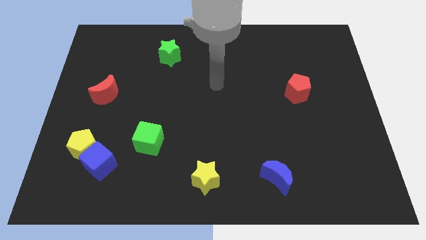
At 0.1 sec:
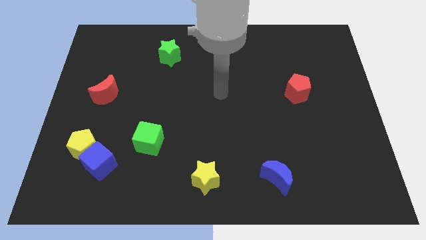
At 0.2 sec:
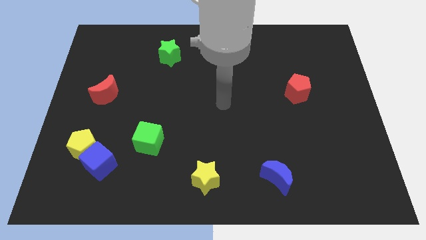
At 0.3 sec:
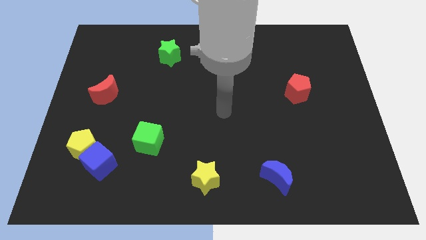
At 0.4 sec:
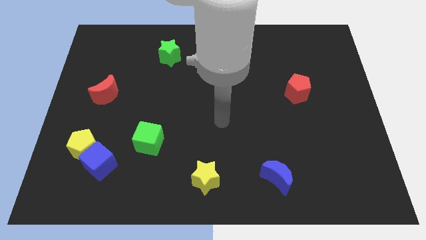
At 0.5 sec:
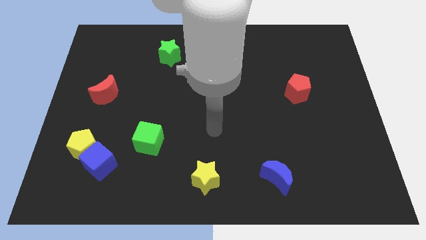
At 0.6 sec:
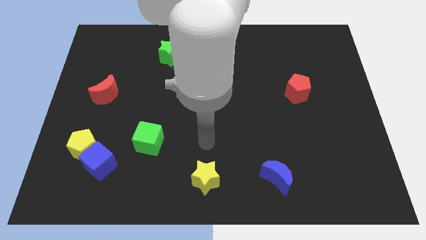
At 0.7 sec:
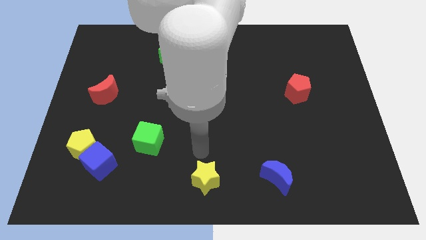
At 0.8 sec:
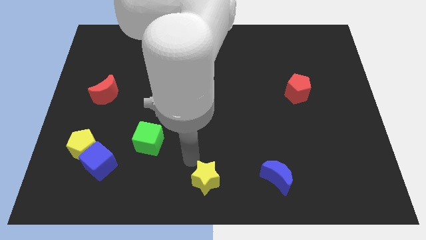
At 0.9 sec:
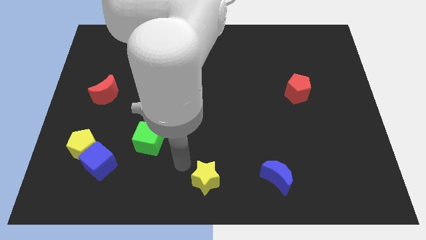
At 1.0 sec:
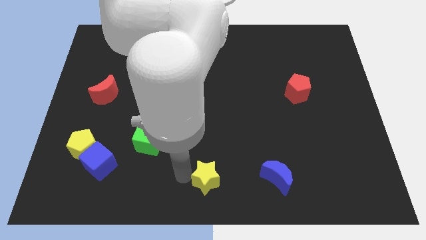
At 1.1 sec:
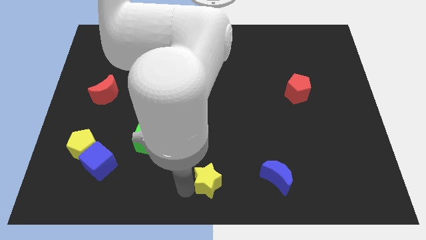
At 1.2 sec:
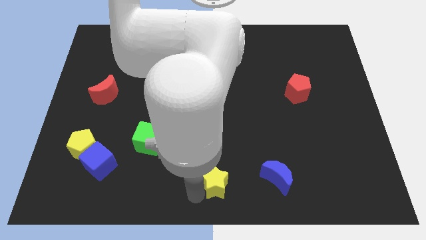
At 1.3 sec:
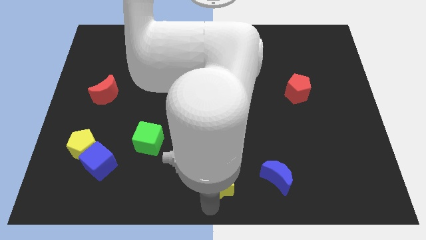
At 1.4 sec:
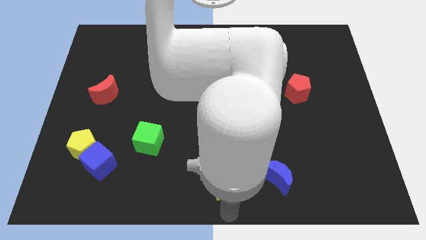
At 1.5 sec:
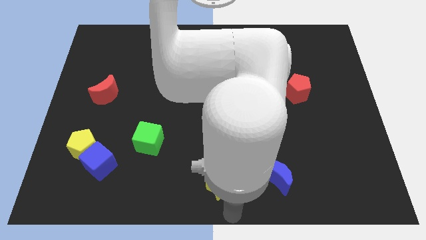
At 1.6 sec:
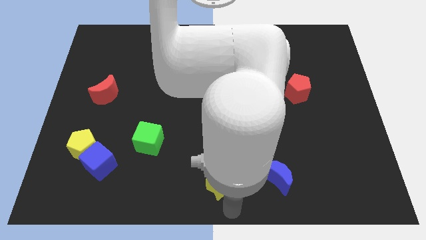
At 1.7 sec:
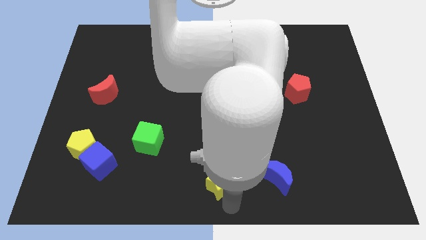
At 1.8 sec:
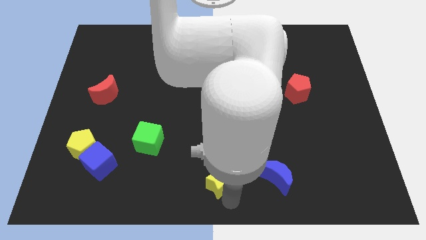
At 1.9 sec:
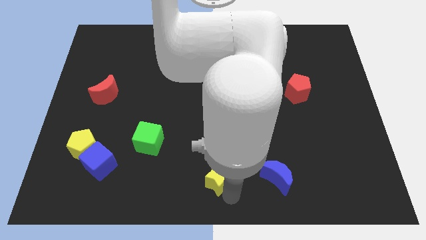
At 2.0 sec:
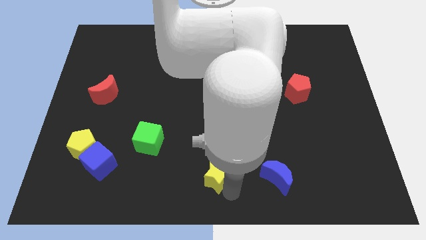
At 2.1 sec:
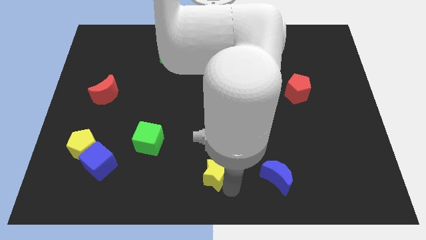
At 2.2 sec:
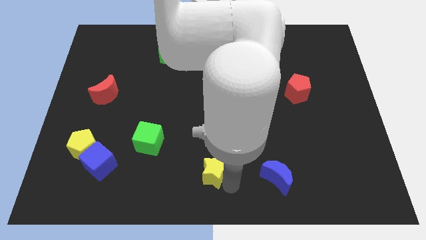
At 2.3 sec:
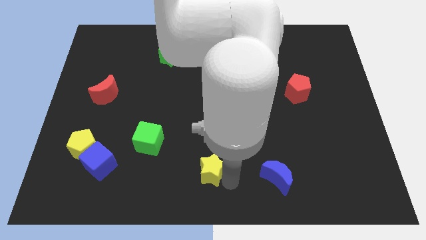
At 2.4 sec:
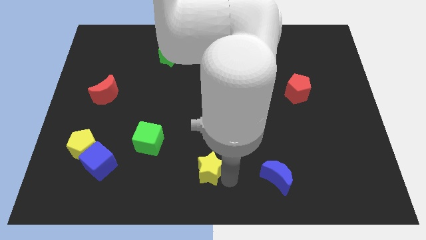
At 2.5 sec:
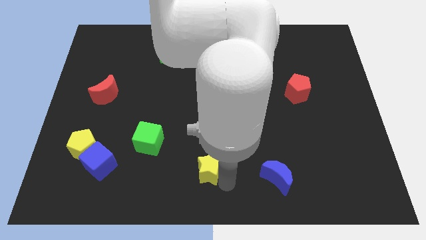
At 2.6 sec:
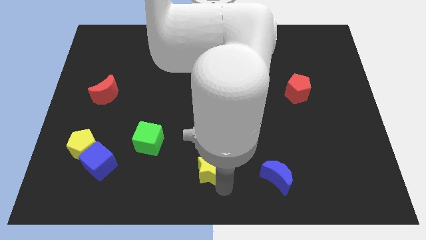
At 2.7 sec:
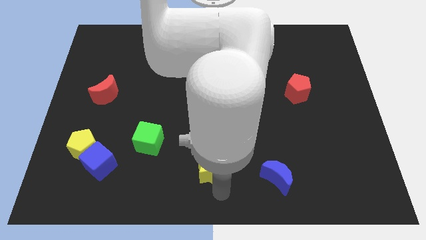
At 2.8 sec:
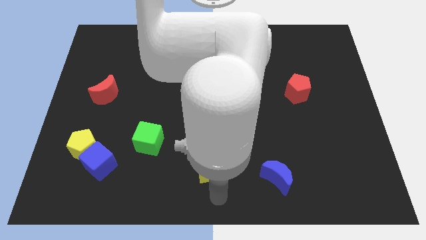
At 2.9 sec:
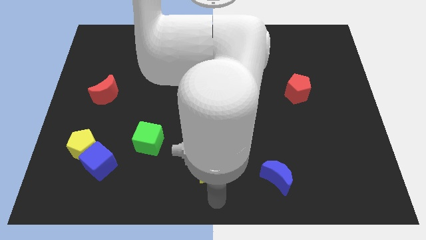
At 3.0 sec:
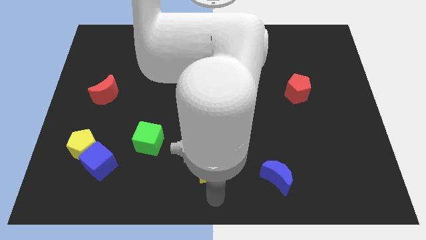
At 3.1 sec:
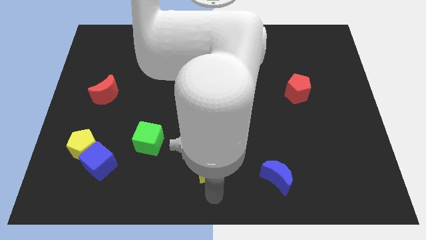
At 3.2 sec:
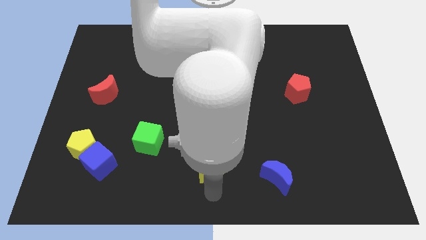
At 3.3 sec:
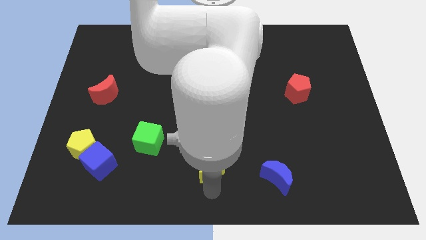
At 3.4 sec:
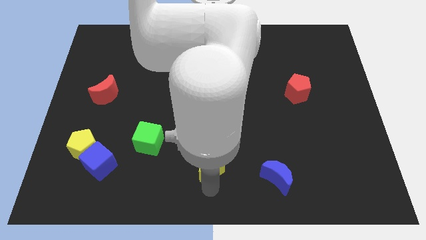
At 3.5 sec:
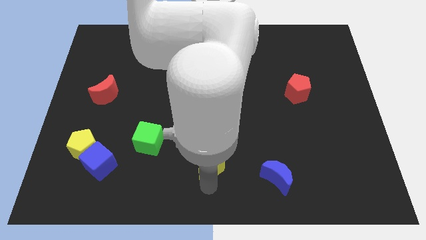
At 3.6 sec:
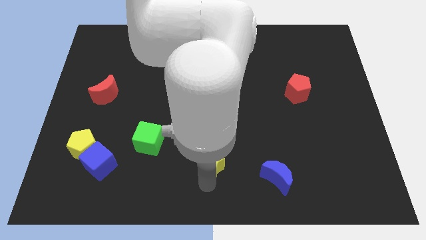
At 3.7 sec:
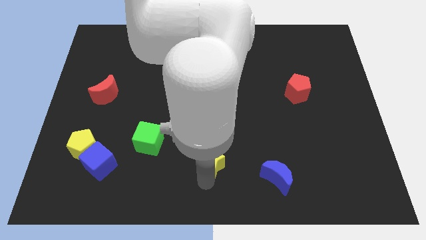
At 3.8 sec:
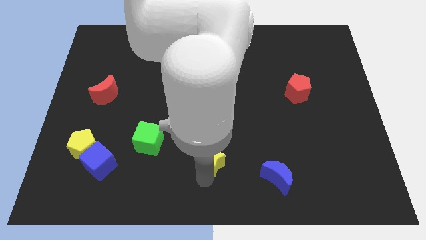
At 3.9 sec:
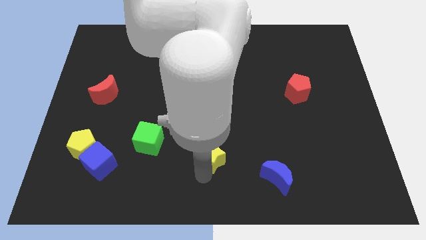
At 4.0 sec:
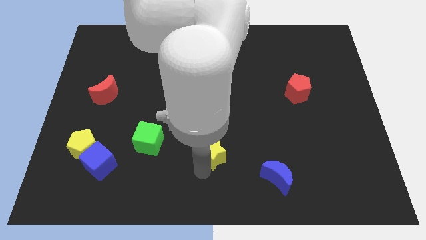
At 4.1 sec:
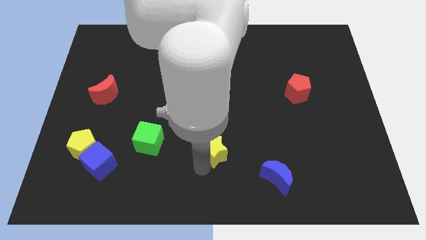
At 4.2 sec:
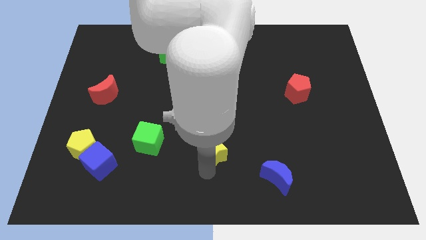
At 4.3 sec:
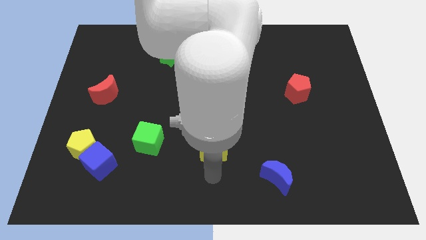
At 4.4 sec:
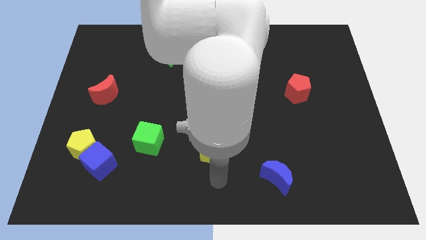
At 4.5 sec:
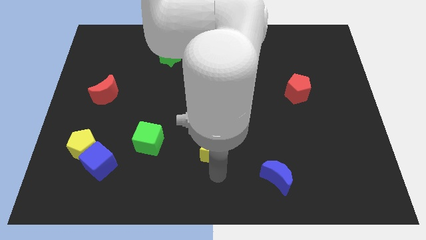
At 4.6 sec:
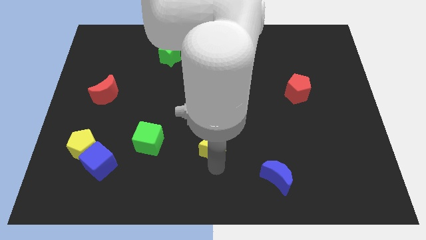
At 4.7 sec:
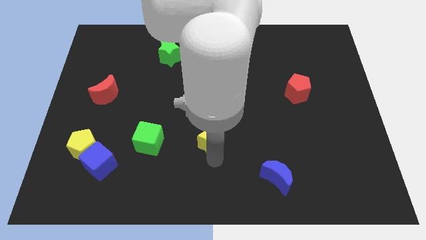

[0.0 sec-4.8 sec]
push the yellow star to the center of the board

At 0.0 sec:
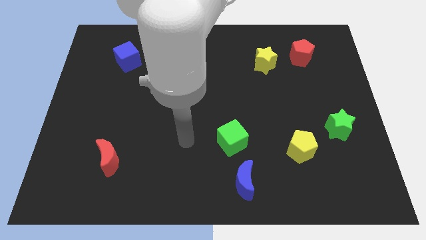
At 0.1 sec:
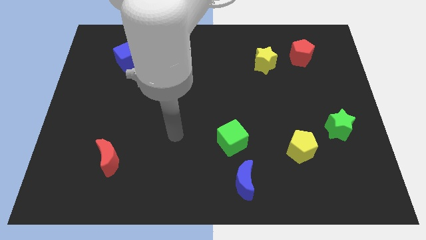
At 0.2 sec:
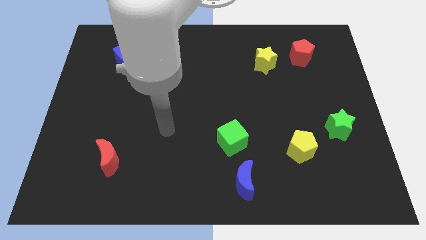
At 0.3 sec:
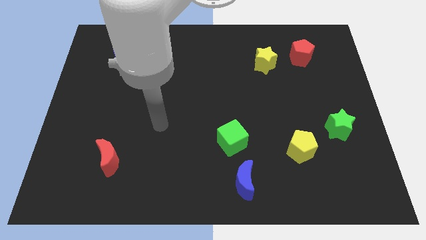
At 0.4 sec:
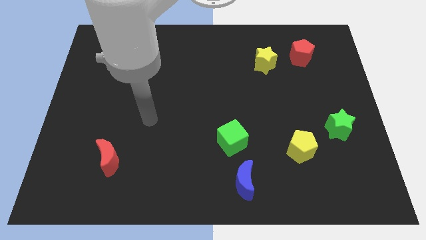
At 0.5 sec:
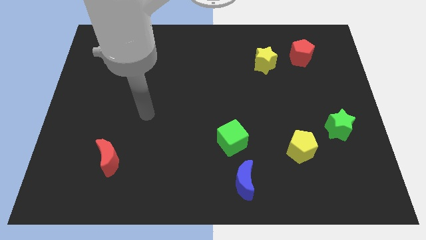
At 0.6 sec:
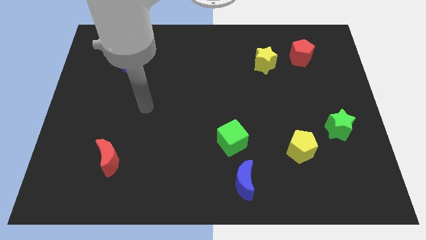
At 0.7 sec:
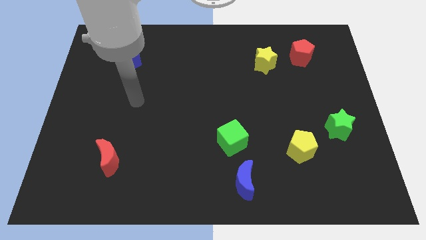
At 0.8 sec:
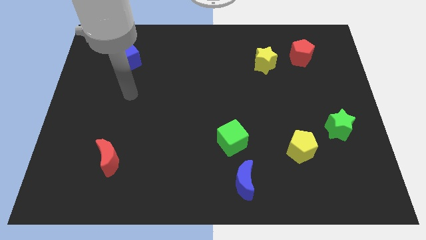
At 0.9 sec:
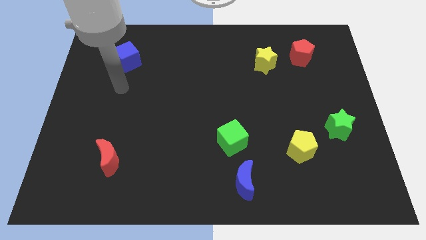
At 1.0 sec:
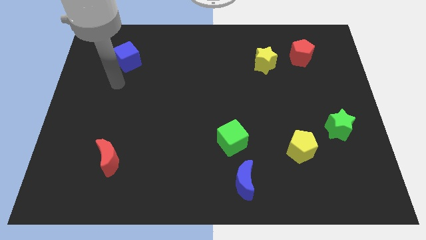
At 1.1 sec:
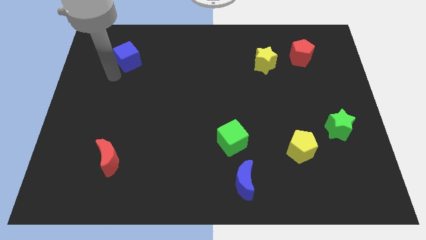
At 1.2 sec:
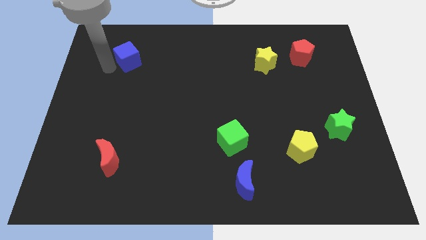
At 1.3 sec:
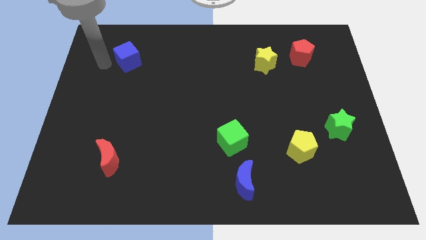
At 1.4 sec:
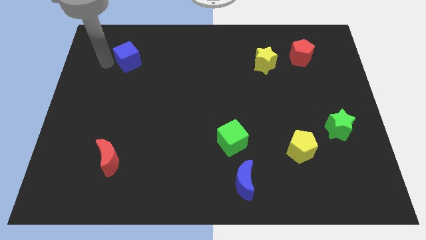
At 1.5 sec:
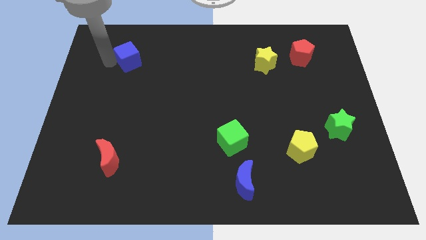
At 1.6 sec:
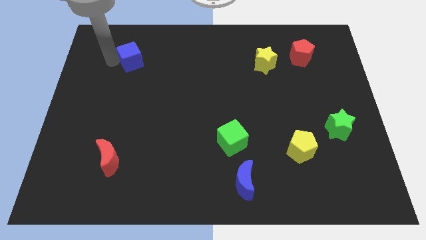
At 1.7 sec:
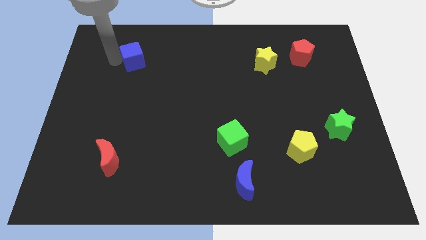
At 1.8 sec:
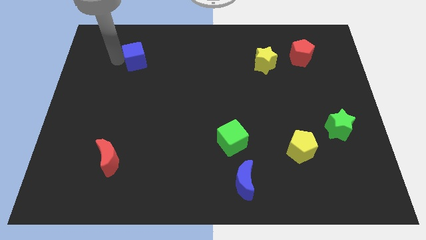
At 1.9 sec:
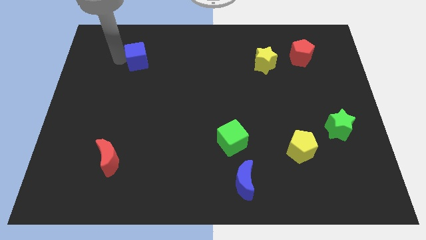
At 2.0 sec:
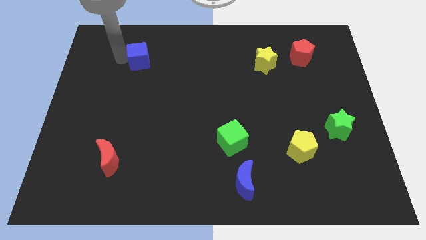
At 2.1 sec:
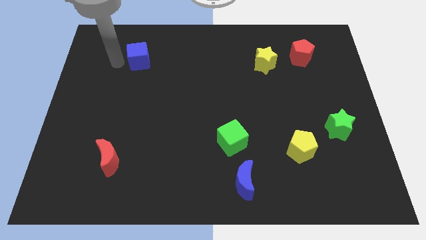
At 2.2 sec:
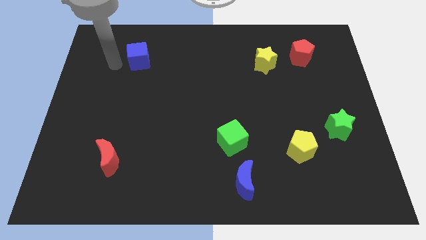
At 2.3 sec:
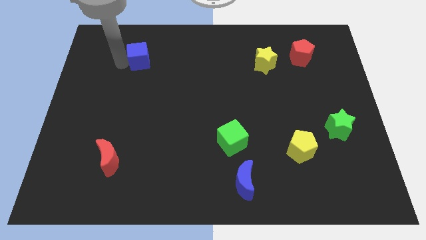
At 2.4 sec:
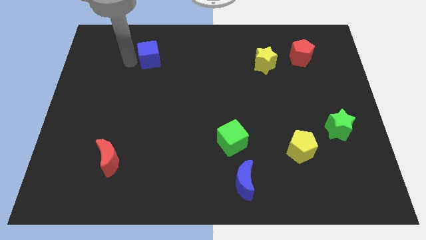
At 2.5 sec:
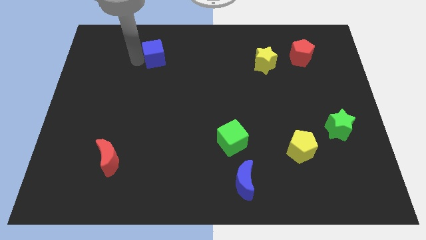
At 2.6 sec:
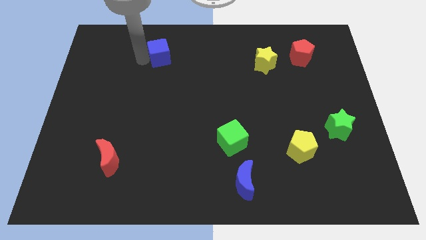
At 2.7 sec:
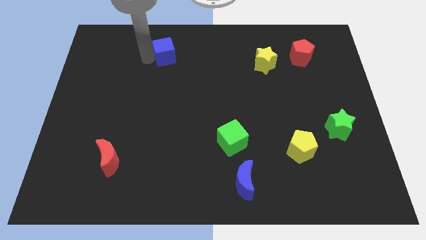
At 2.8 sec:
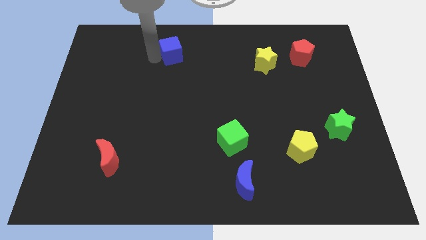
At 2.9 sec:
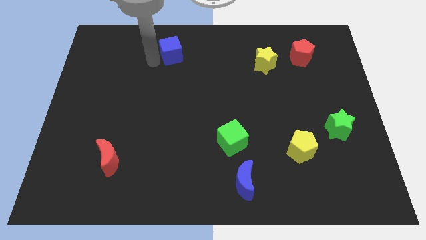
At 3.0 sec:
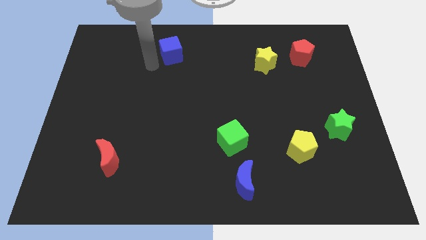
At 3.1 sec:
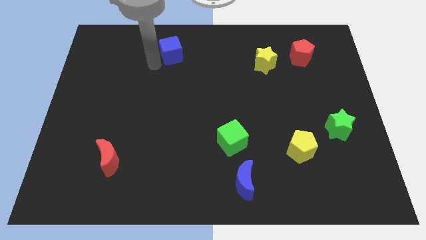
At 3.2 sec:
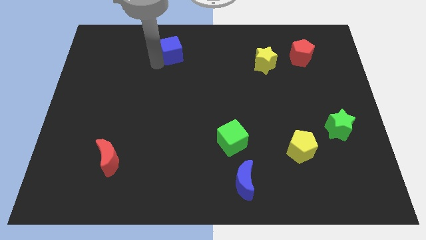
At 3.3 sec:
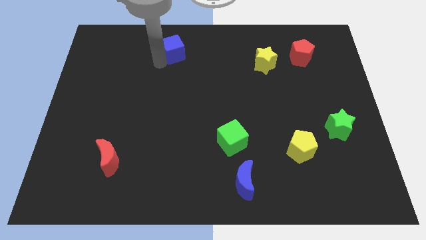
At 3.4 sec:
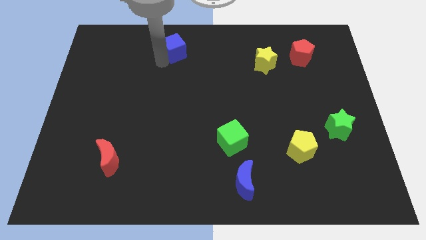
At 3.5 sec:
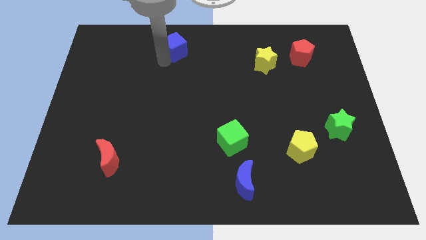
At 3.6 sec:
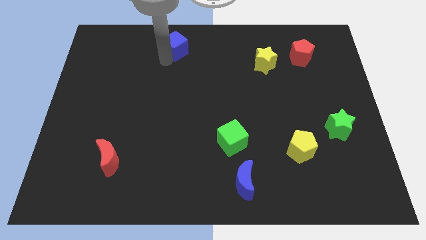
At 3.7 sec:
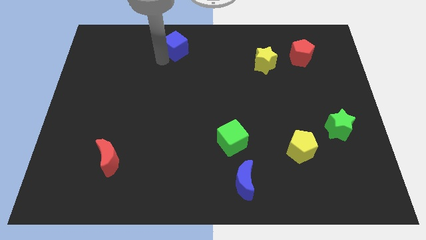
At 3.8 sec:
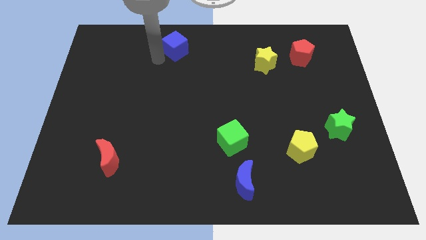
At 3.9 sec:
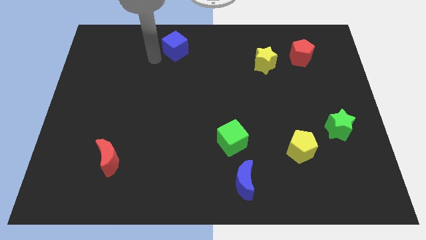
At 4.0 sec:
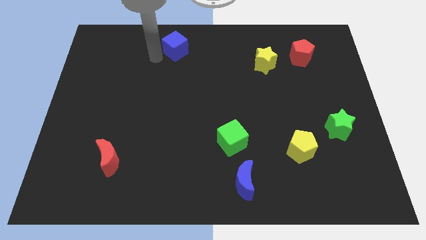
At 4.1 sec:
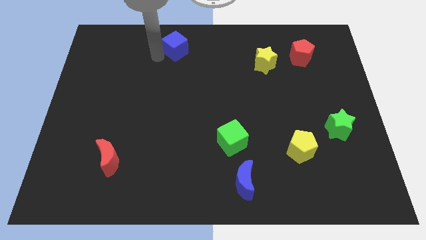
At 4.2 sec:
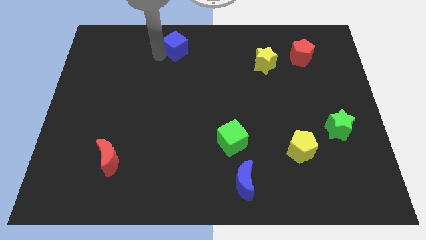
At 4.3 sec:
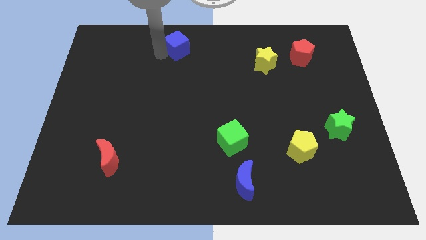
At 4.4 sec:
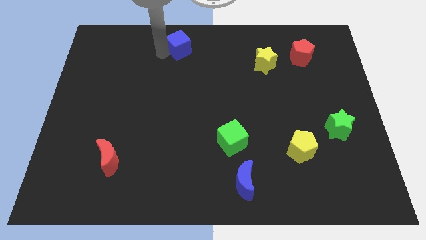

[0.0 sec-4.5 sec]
put the blue cube to the top side
